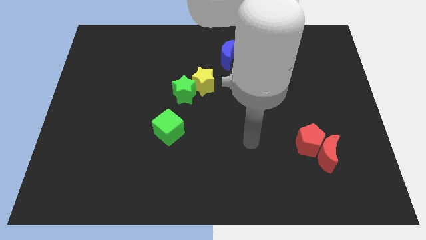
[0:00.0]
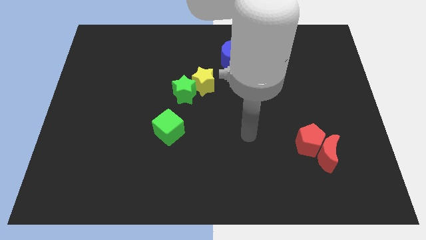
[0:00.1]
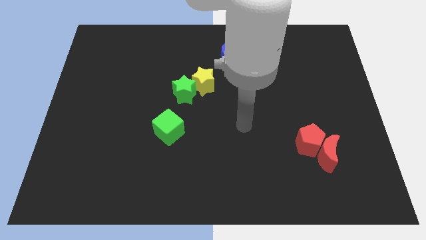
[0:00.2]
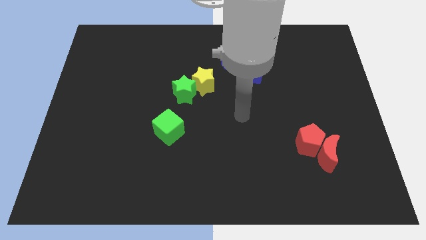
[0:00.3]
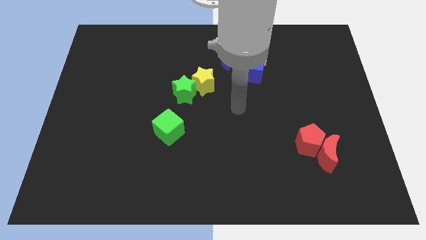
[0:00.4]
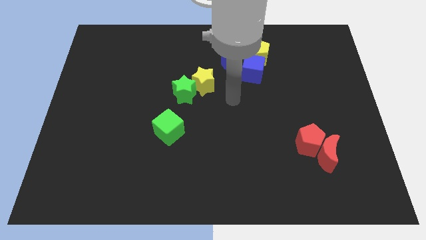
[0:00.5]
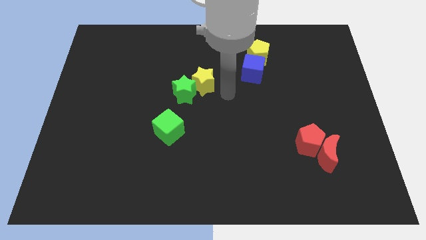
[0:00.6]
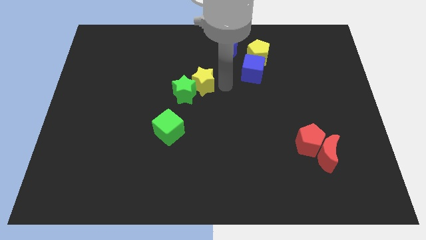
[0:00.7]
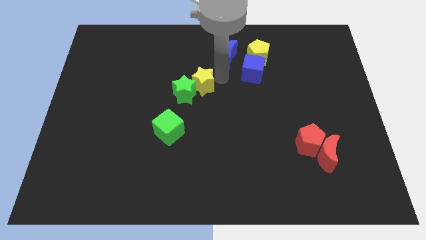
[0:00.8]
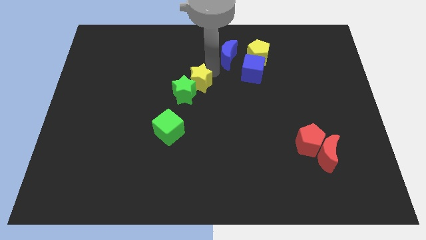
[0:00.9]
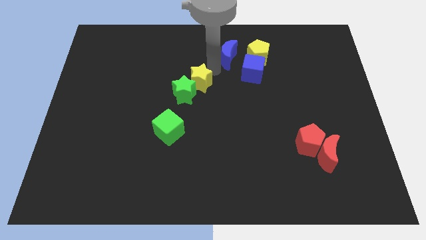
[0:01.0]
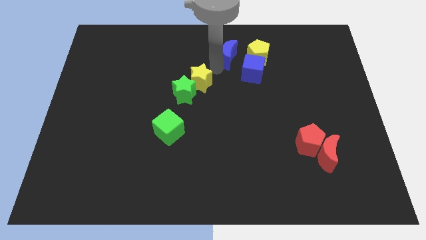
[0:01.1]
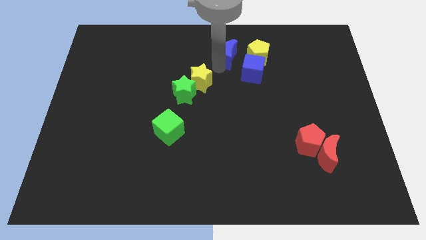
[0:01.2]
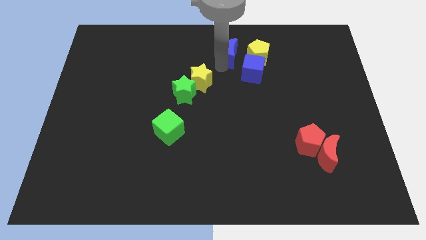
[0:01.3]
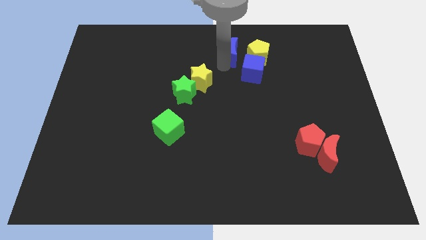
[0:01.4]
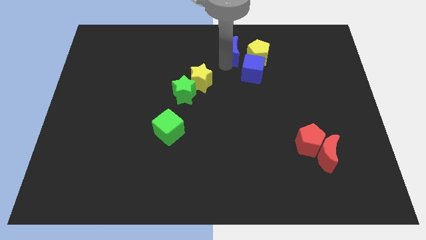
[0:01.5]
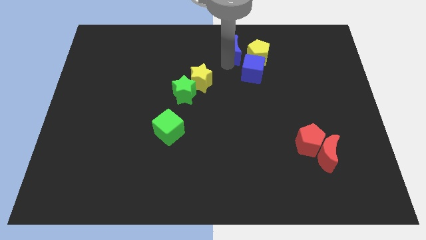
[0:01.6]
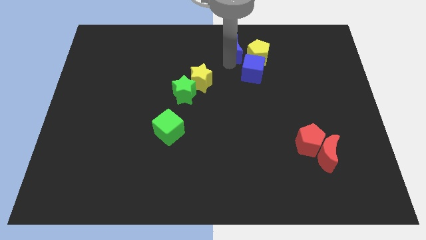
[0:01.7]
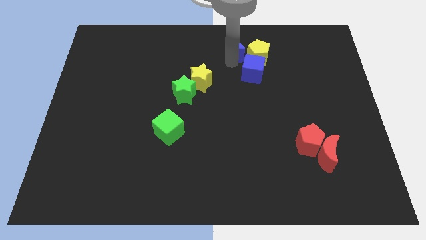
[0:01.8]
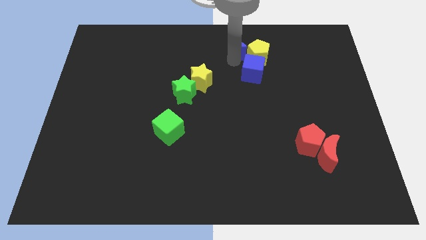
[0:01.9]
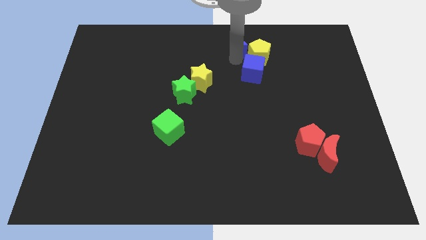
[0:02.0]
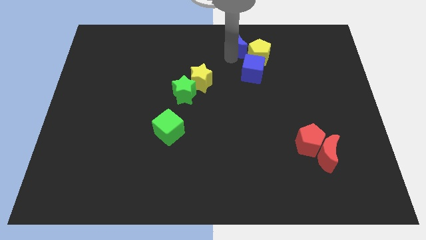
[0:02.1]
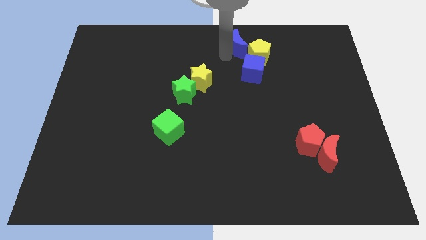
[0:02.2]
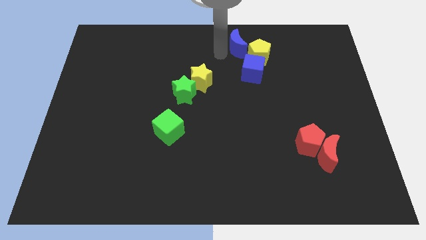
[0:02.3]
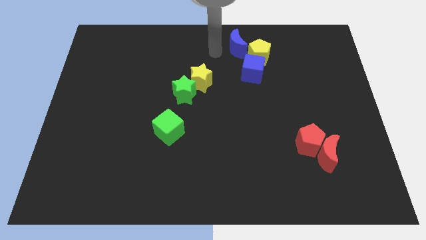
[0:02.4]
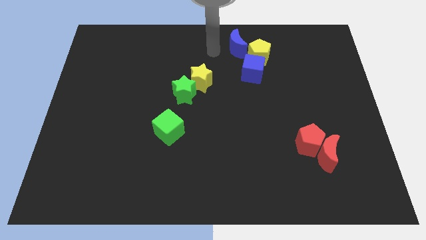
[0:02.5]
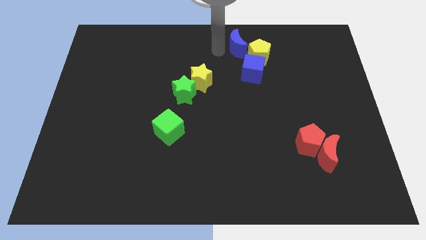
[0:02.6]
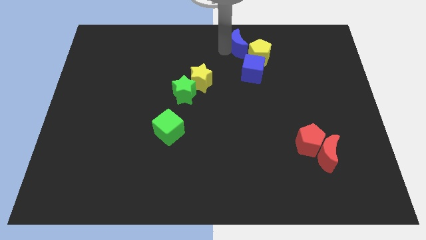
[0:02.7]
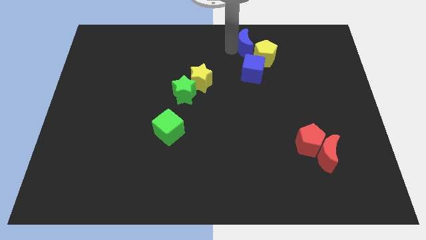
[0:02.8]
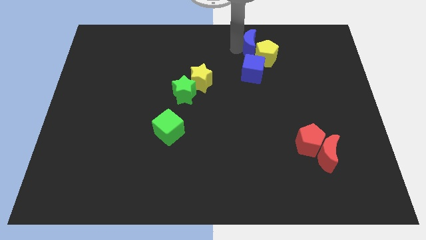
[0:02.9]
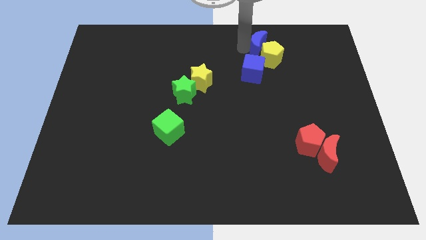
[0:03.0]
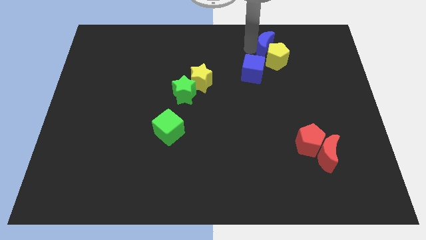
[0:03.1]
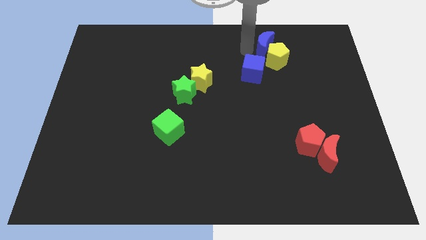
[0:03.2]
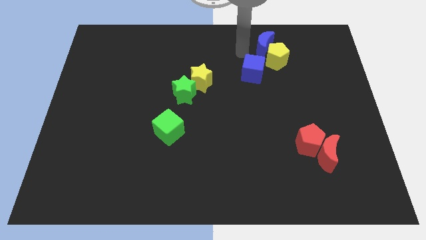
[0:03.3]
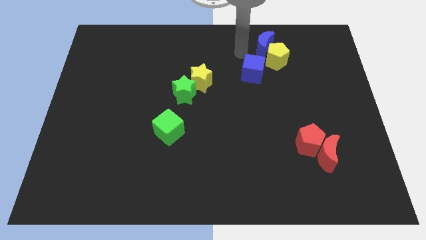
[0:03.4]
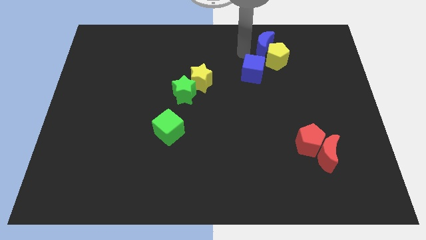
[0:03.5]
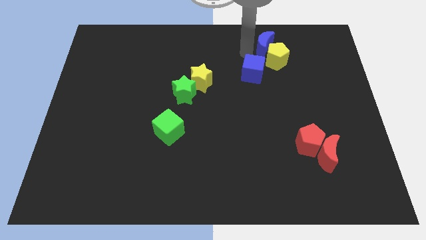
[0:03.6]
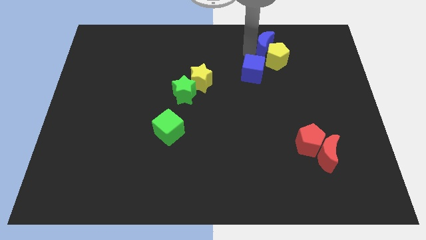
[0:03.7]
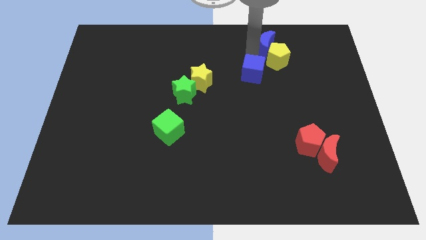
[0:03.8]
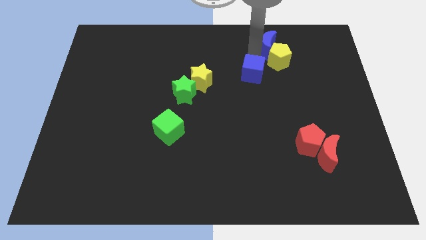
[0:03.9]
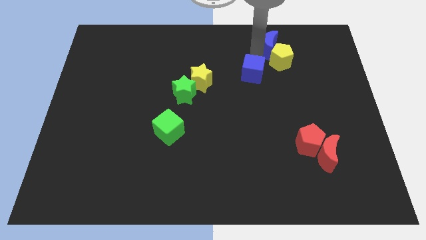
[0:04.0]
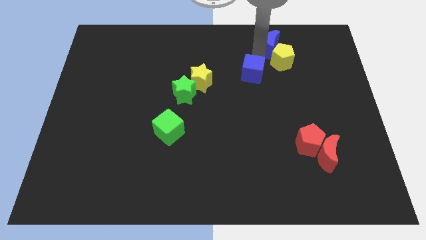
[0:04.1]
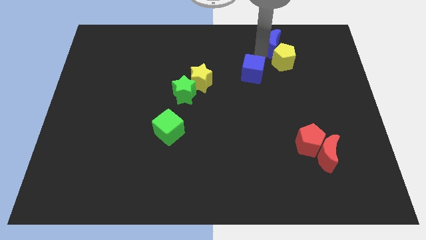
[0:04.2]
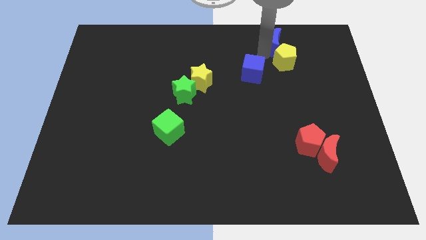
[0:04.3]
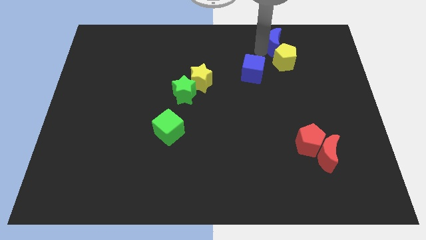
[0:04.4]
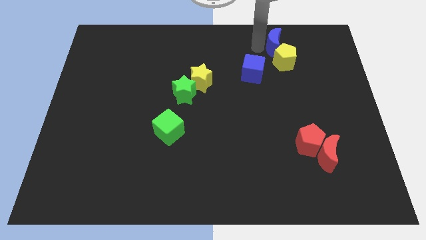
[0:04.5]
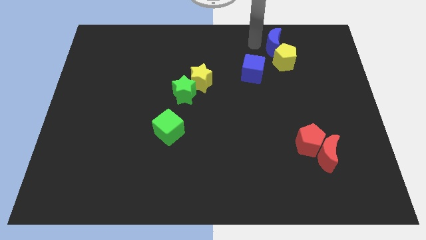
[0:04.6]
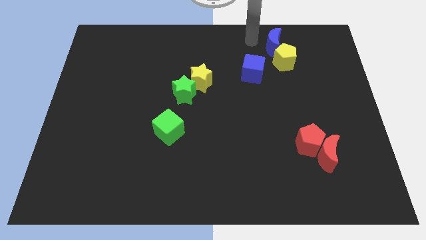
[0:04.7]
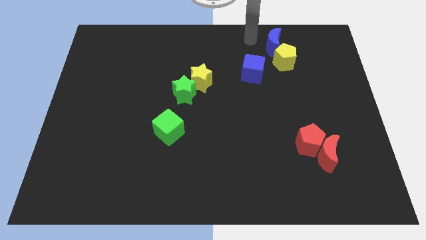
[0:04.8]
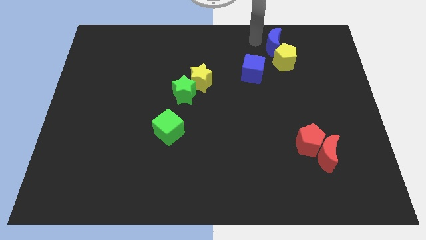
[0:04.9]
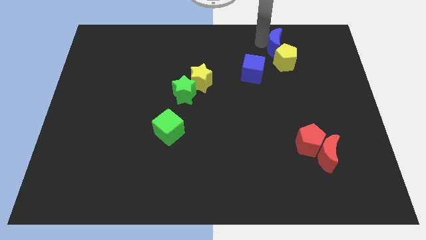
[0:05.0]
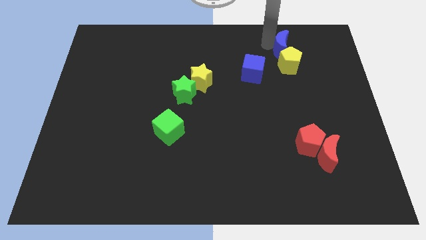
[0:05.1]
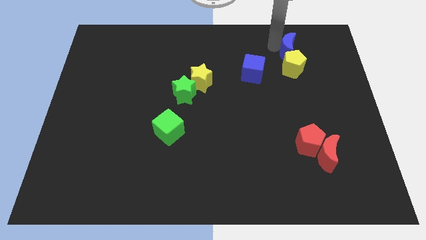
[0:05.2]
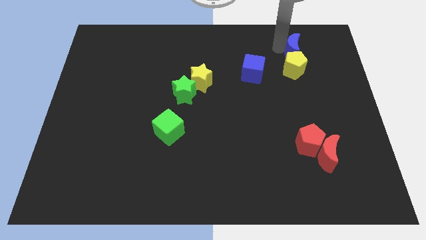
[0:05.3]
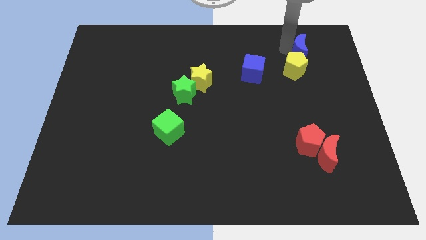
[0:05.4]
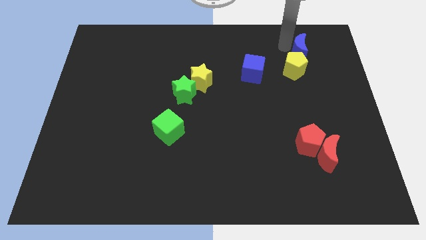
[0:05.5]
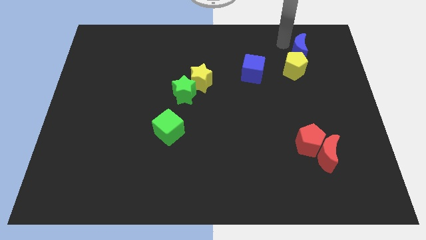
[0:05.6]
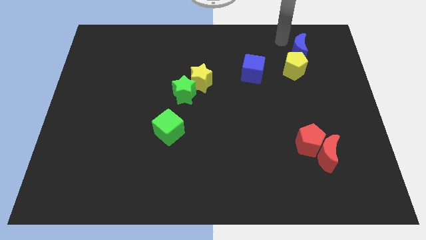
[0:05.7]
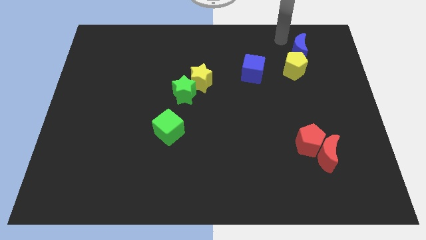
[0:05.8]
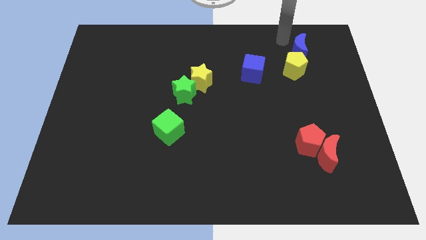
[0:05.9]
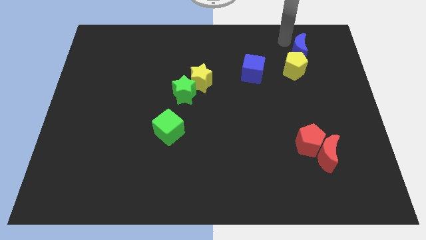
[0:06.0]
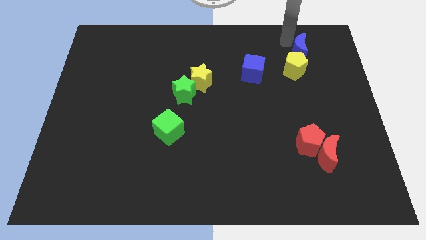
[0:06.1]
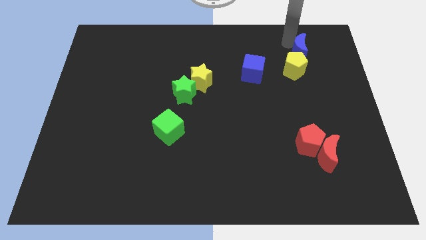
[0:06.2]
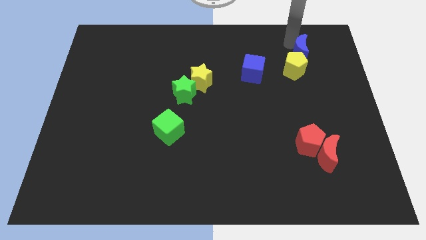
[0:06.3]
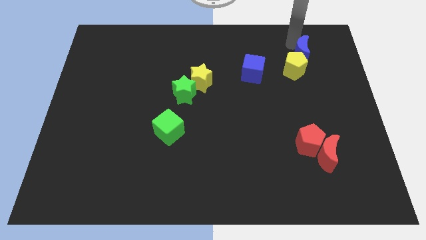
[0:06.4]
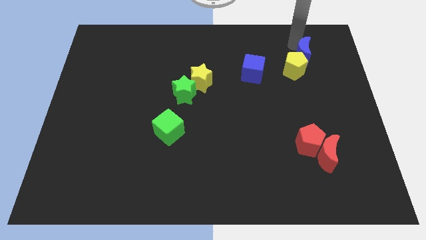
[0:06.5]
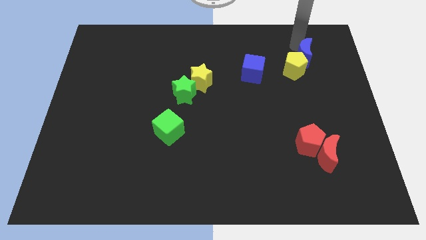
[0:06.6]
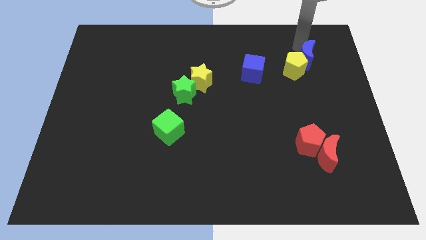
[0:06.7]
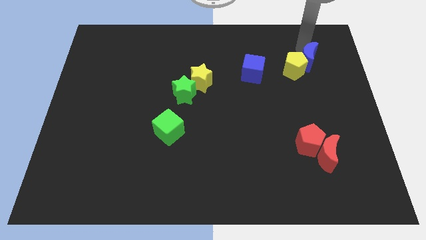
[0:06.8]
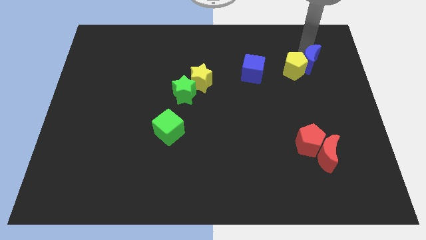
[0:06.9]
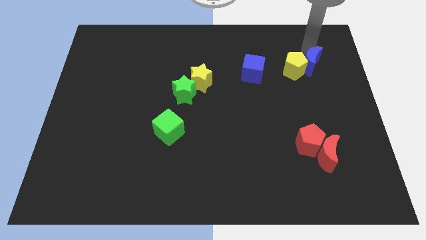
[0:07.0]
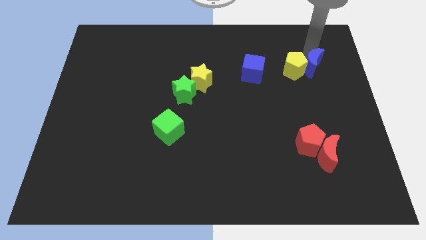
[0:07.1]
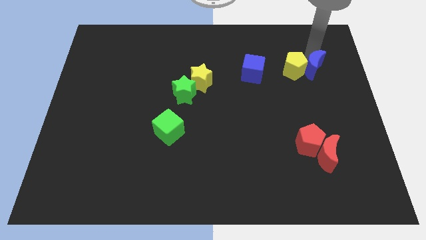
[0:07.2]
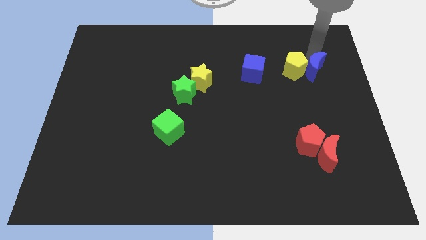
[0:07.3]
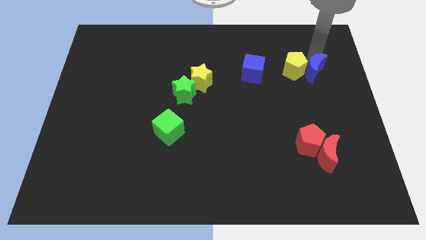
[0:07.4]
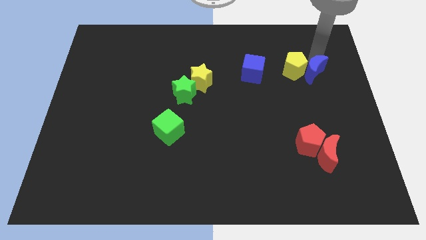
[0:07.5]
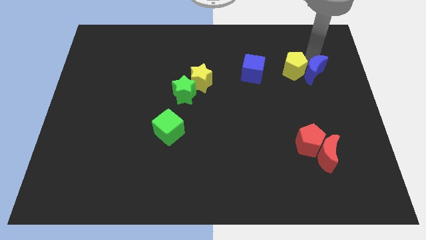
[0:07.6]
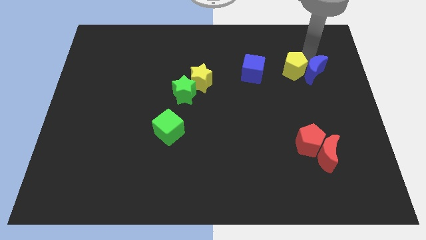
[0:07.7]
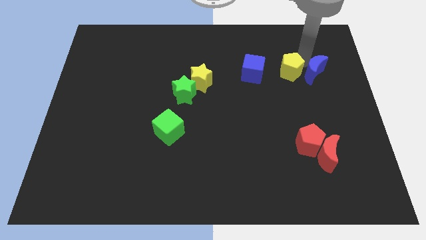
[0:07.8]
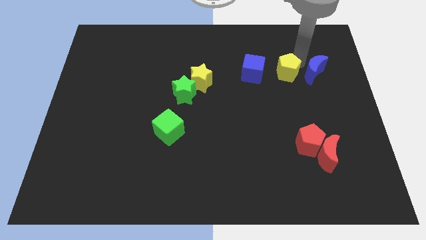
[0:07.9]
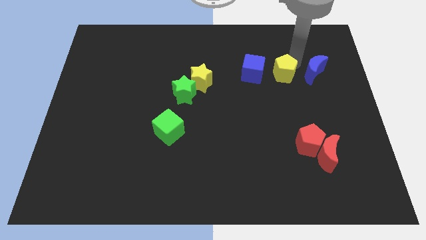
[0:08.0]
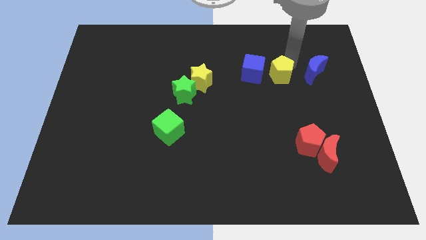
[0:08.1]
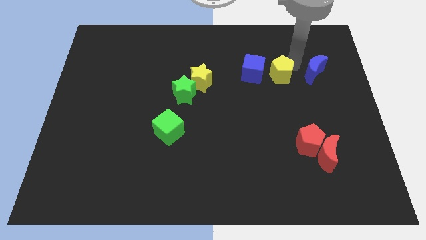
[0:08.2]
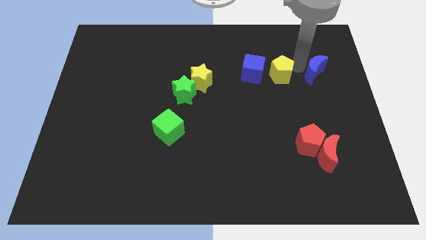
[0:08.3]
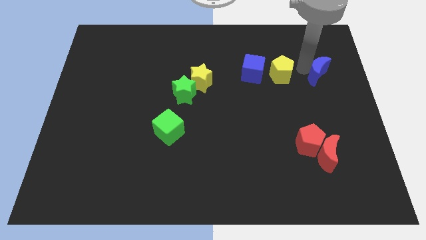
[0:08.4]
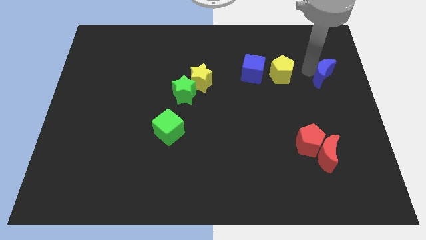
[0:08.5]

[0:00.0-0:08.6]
push the blue moon to the center right
